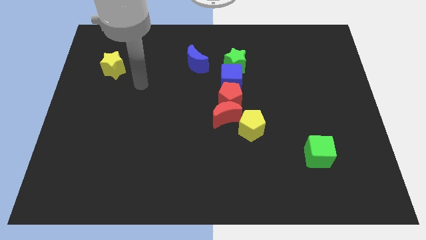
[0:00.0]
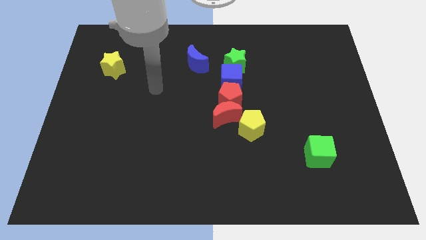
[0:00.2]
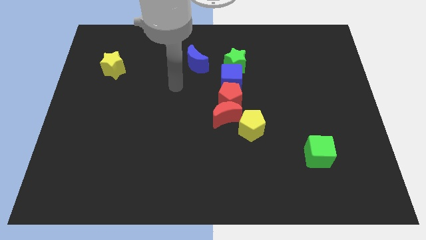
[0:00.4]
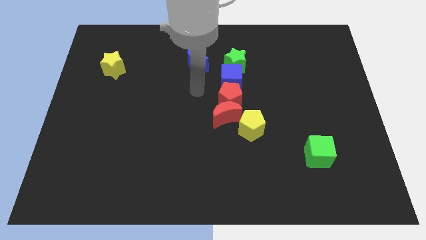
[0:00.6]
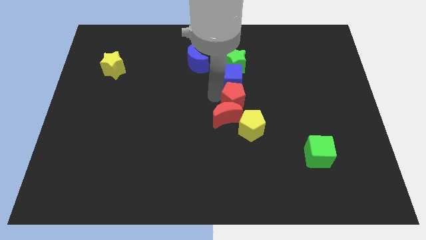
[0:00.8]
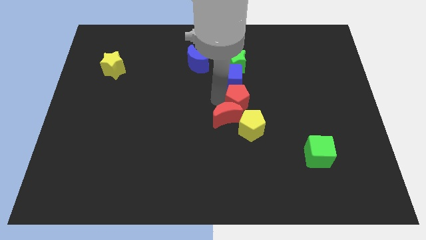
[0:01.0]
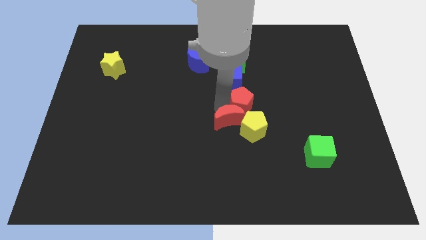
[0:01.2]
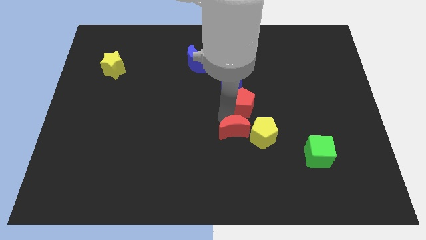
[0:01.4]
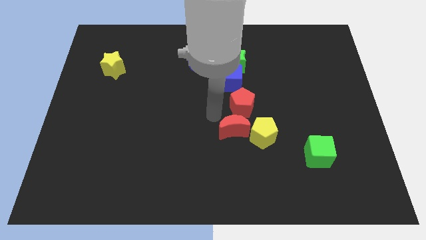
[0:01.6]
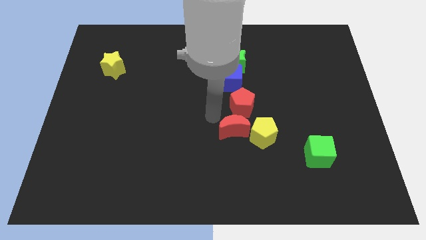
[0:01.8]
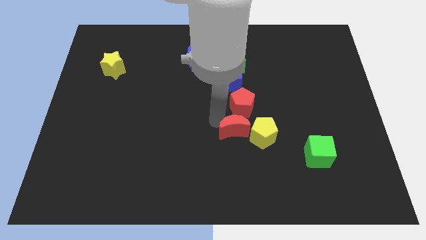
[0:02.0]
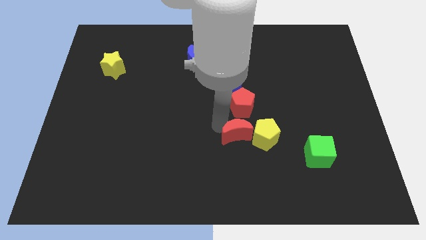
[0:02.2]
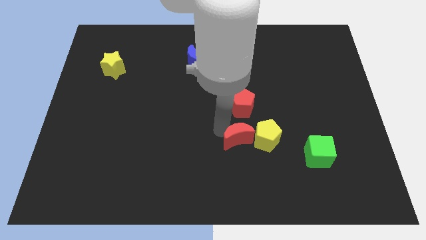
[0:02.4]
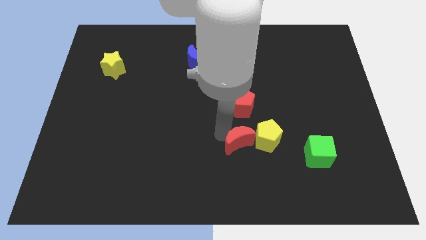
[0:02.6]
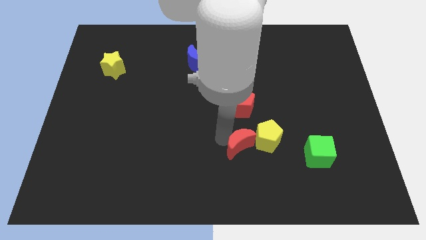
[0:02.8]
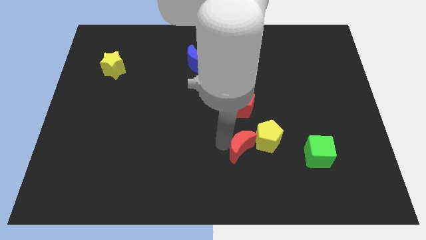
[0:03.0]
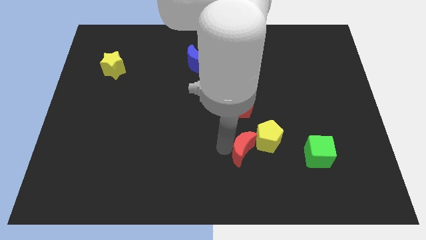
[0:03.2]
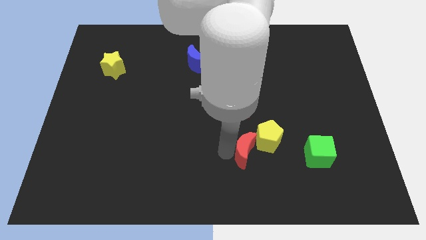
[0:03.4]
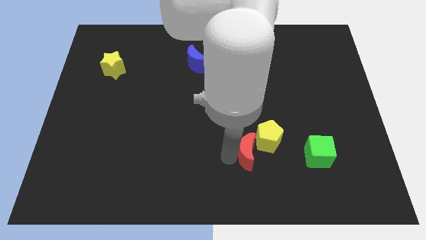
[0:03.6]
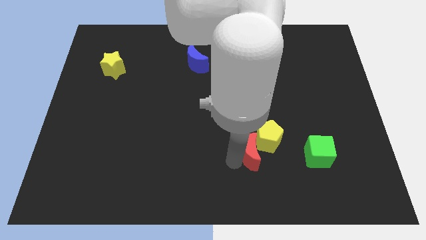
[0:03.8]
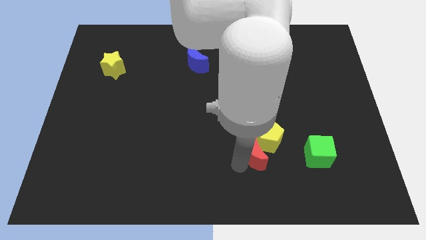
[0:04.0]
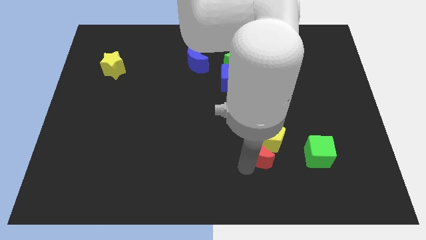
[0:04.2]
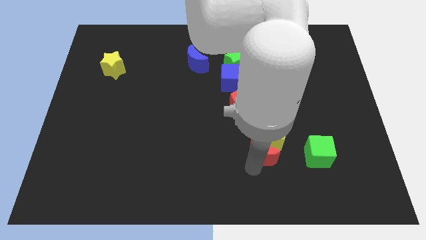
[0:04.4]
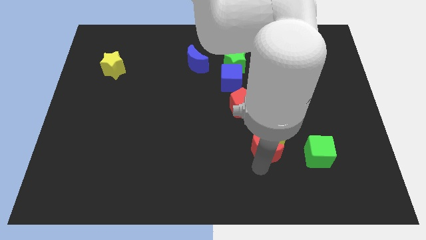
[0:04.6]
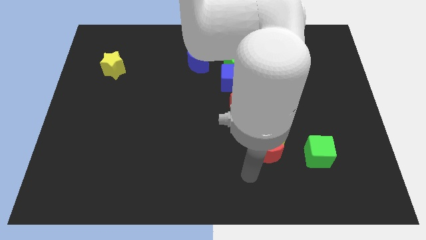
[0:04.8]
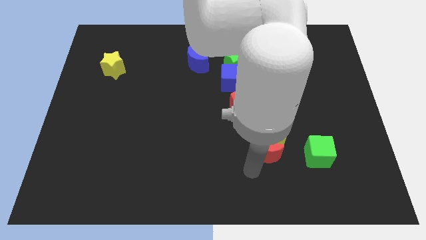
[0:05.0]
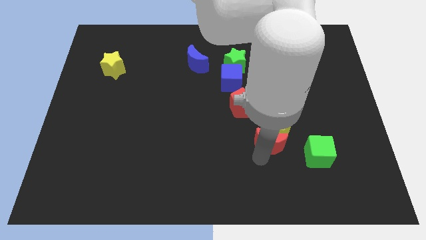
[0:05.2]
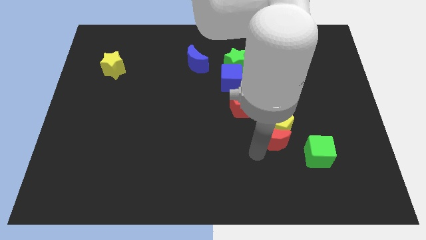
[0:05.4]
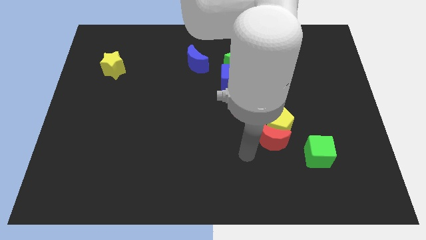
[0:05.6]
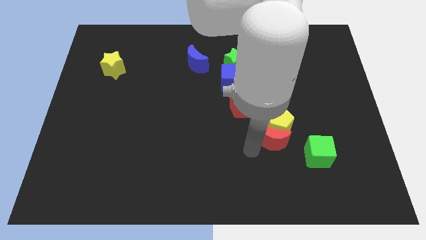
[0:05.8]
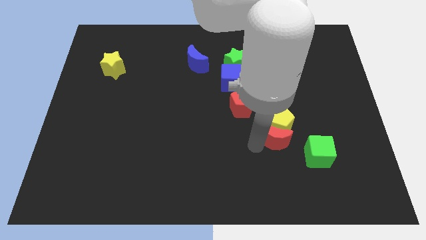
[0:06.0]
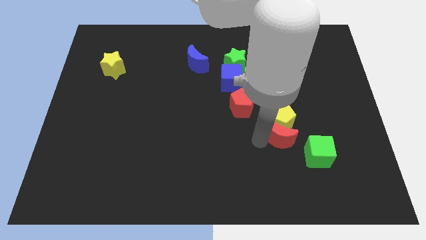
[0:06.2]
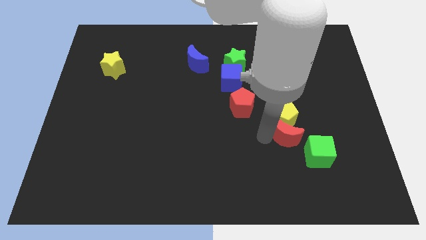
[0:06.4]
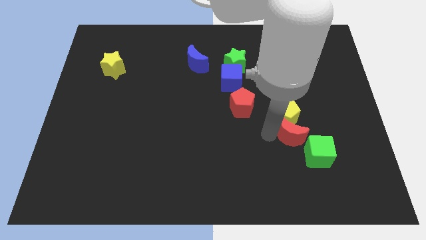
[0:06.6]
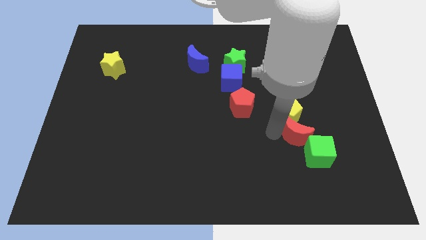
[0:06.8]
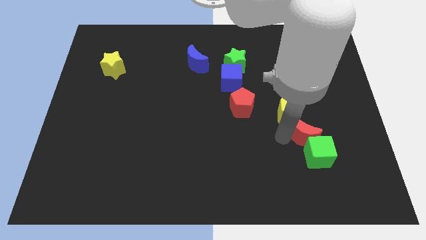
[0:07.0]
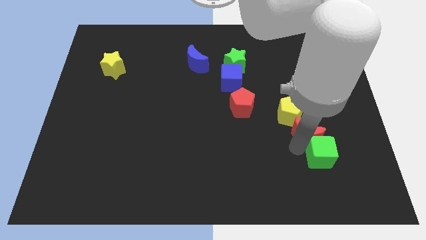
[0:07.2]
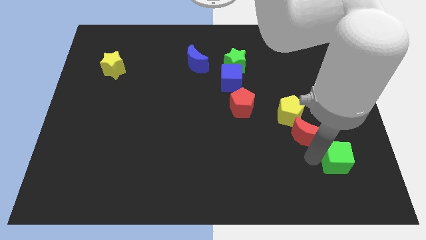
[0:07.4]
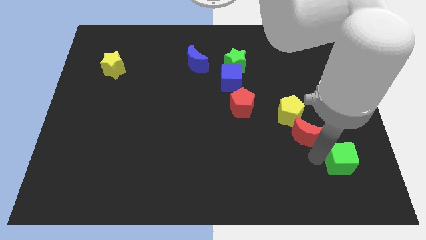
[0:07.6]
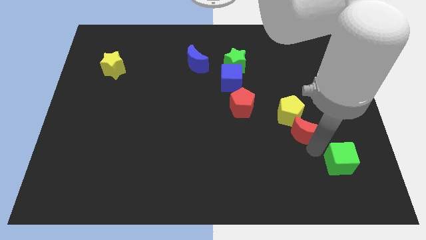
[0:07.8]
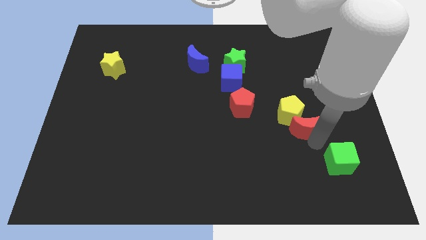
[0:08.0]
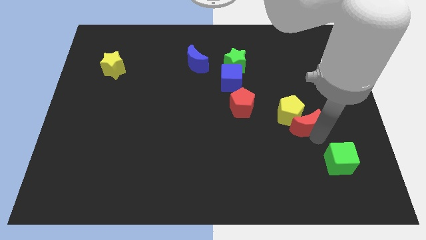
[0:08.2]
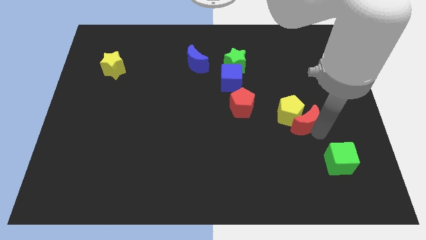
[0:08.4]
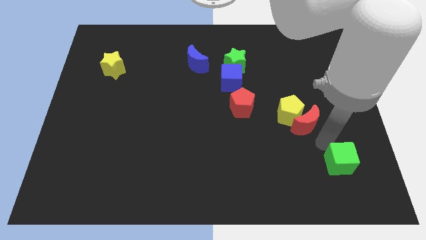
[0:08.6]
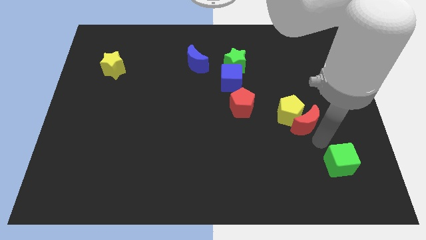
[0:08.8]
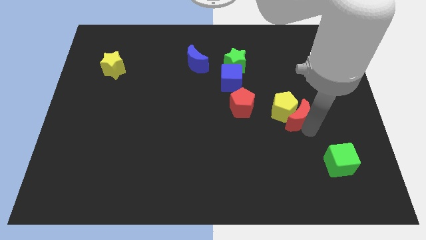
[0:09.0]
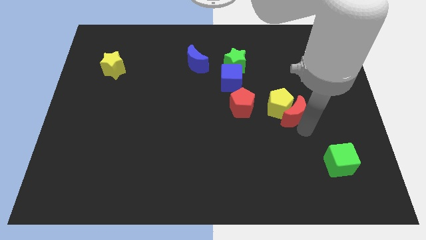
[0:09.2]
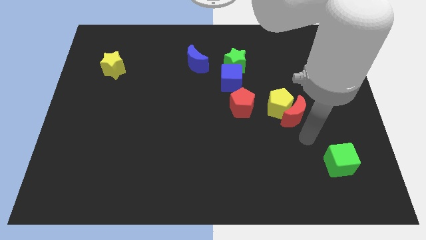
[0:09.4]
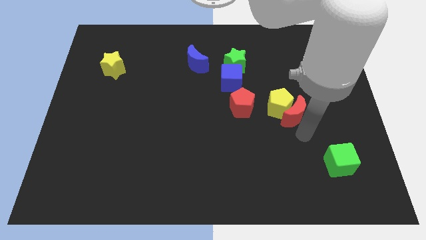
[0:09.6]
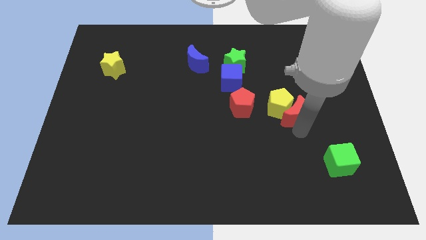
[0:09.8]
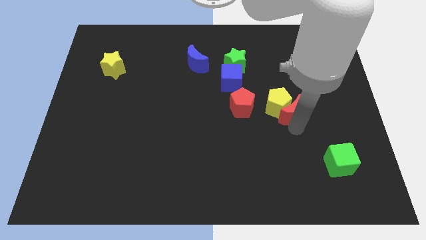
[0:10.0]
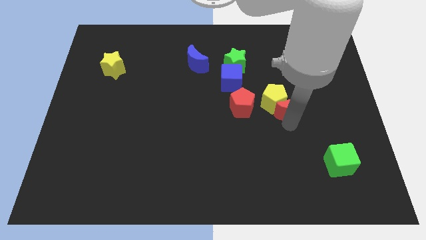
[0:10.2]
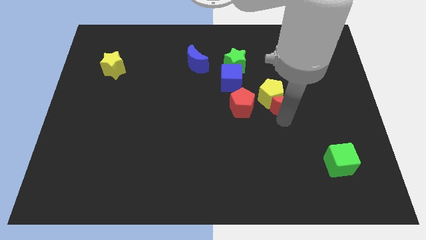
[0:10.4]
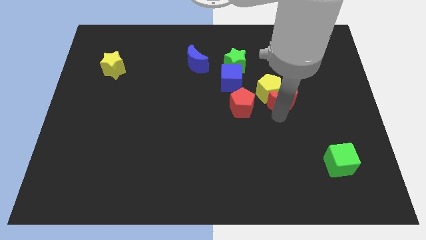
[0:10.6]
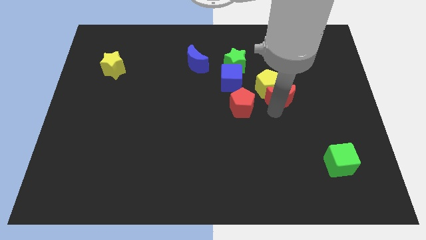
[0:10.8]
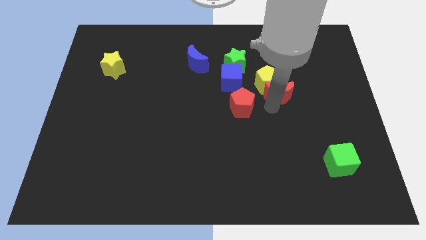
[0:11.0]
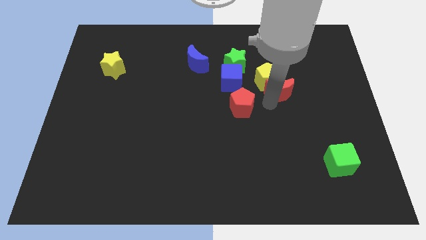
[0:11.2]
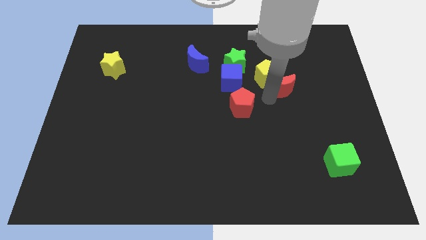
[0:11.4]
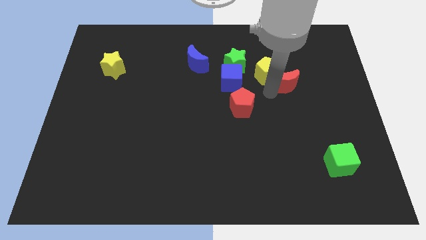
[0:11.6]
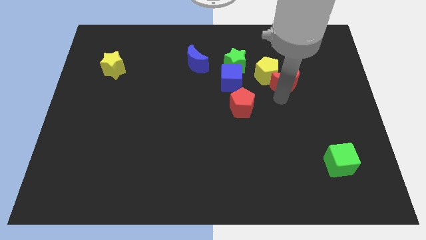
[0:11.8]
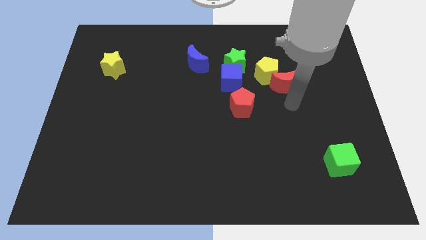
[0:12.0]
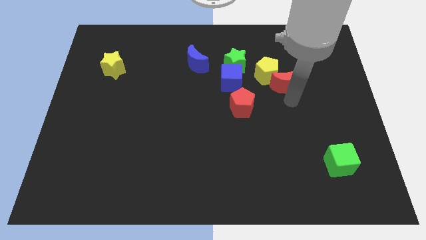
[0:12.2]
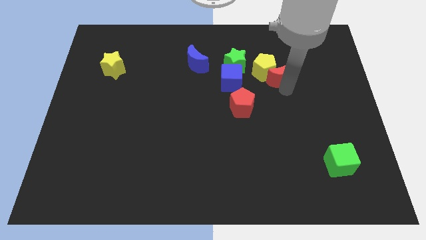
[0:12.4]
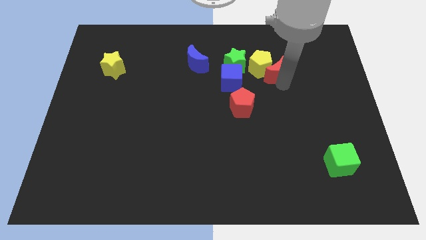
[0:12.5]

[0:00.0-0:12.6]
move the red moon just right of the green star

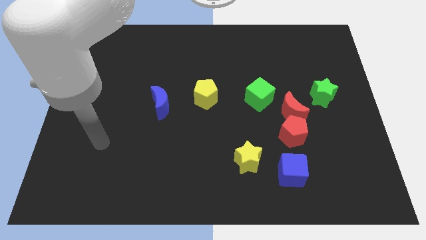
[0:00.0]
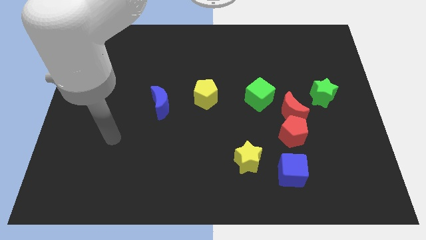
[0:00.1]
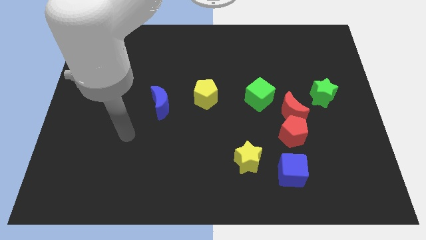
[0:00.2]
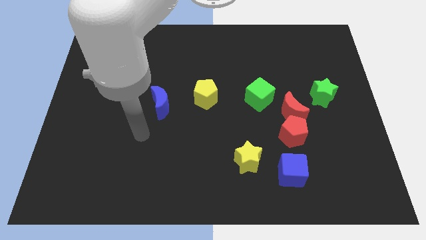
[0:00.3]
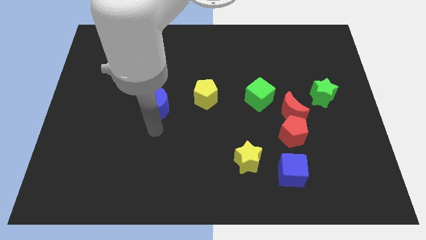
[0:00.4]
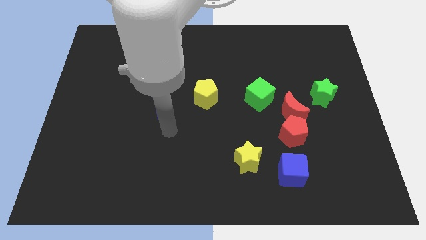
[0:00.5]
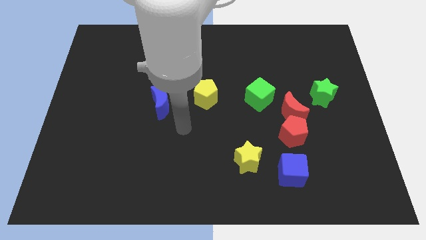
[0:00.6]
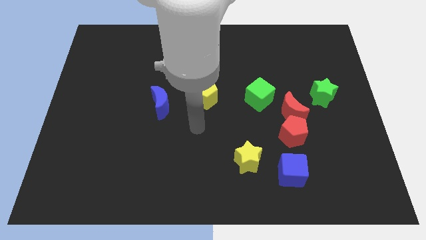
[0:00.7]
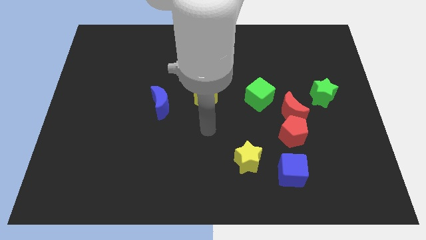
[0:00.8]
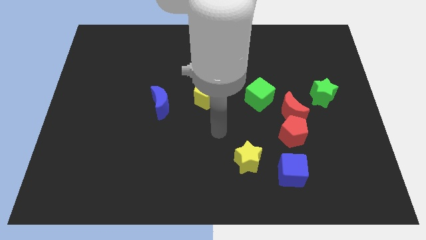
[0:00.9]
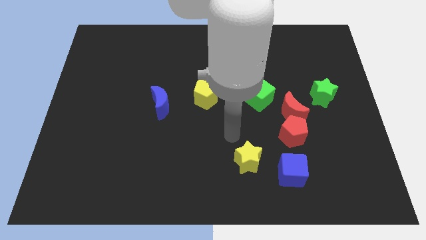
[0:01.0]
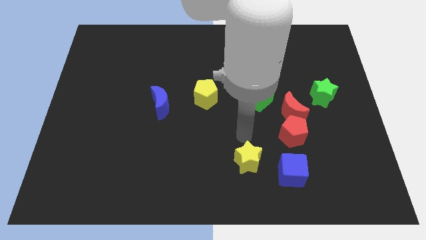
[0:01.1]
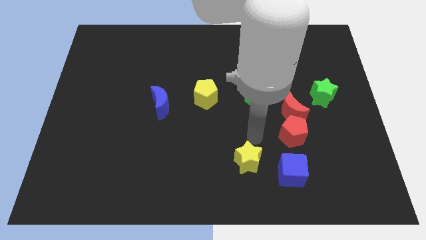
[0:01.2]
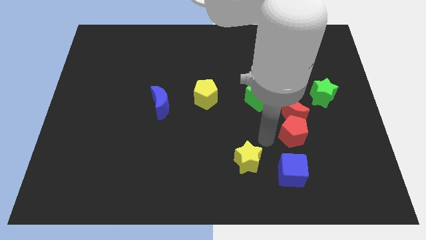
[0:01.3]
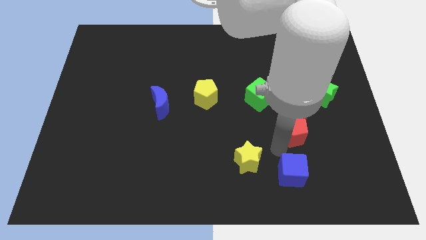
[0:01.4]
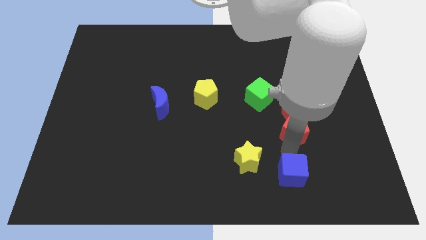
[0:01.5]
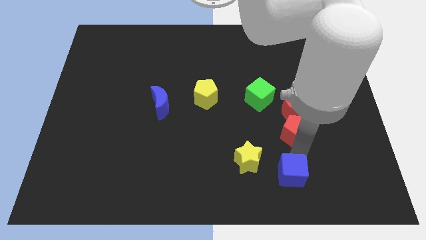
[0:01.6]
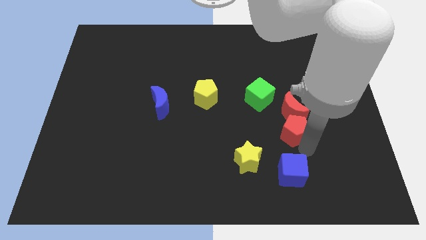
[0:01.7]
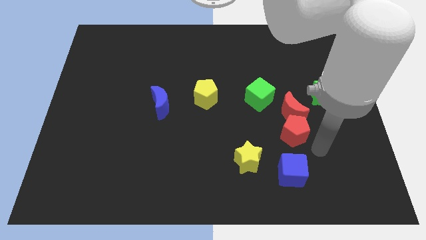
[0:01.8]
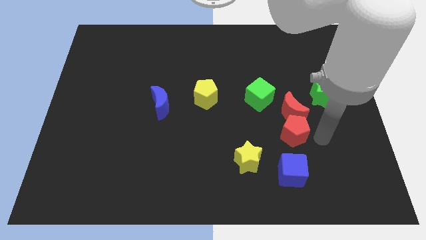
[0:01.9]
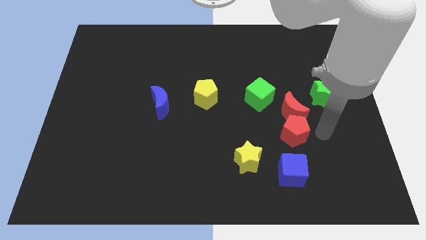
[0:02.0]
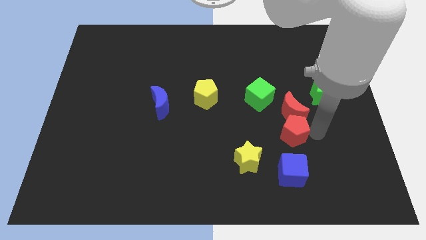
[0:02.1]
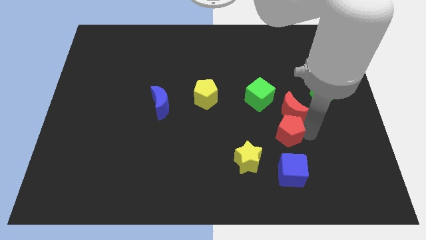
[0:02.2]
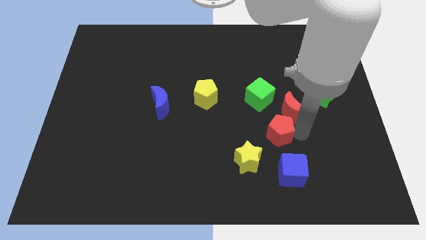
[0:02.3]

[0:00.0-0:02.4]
put the red pentagon to the bottom side of the green cube
